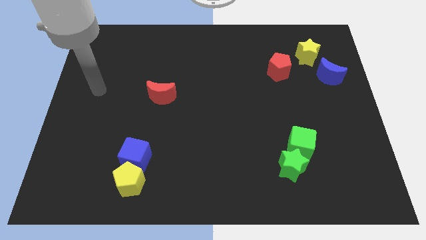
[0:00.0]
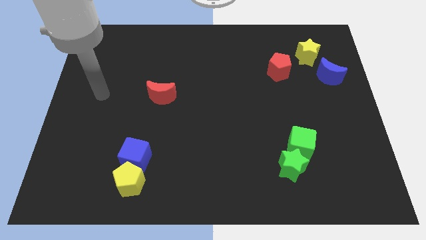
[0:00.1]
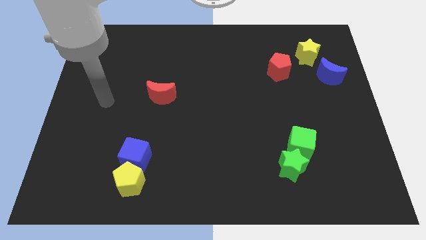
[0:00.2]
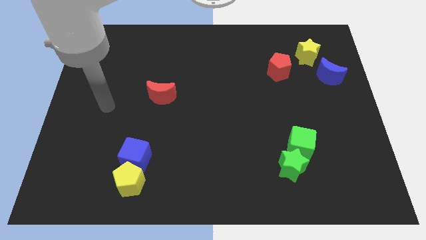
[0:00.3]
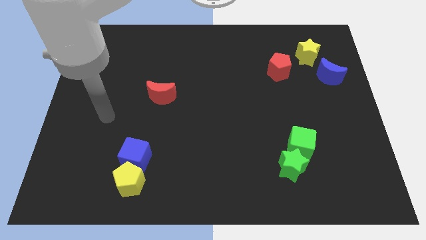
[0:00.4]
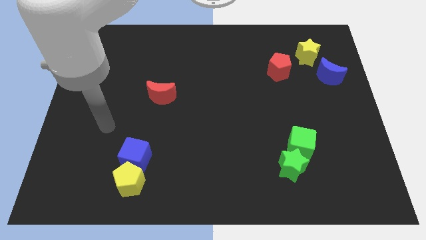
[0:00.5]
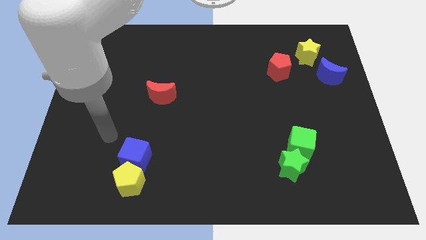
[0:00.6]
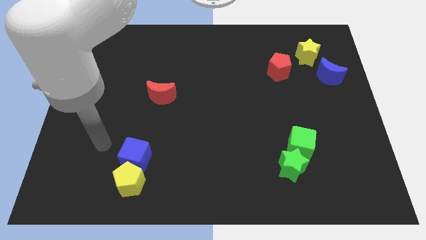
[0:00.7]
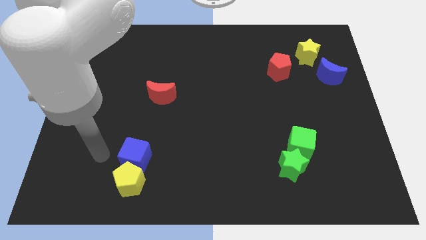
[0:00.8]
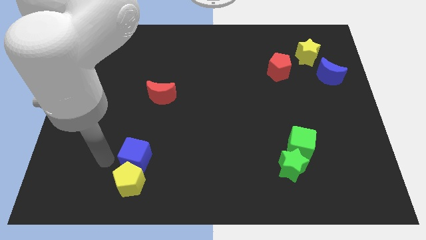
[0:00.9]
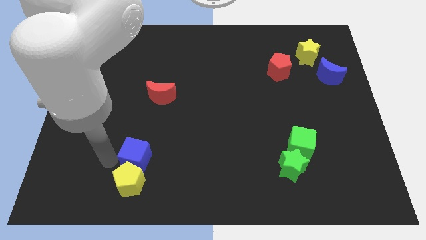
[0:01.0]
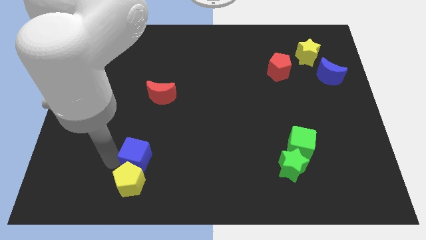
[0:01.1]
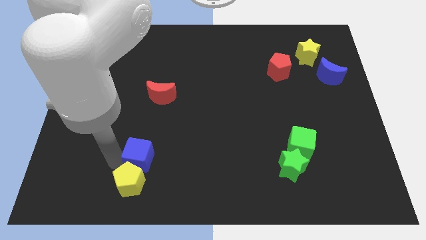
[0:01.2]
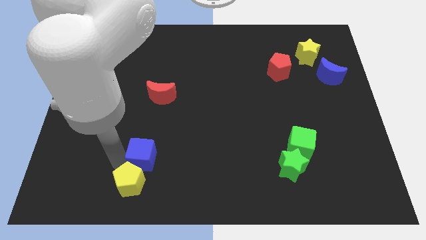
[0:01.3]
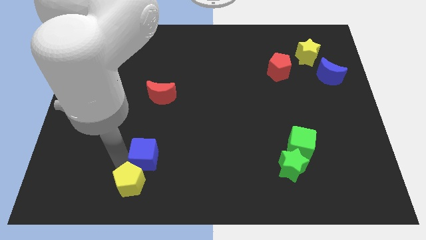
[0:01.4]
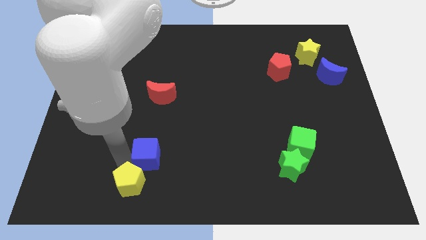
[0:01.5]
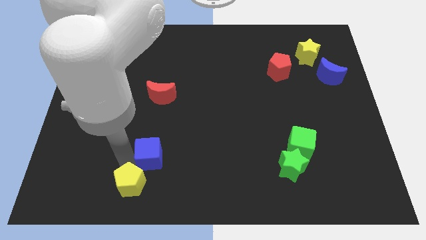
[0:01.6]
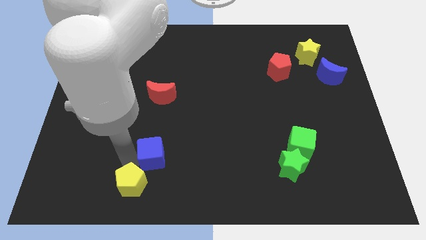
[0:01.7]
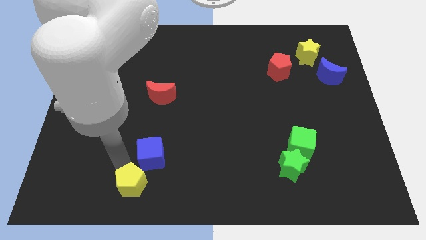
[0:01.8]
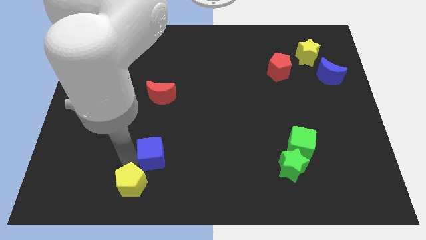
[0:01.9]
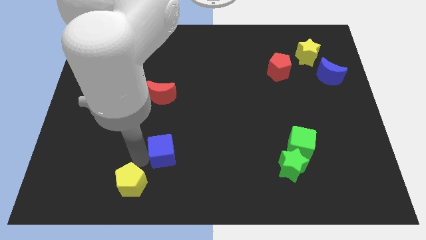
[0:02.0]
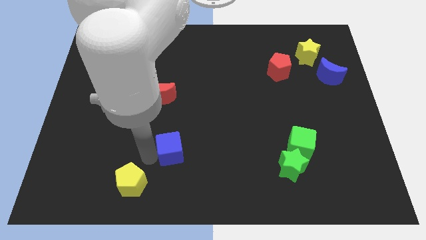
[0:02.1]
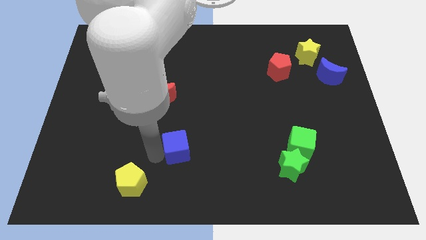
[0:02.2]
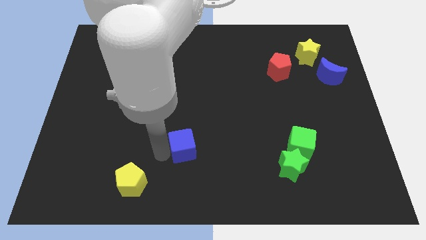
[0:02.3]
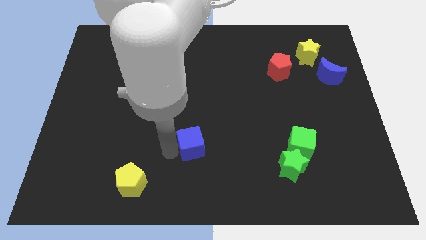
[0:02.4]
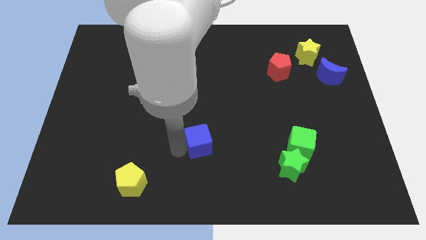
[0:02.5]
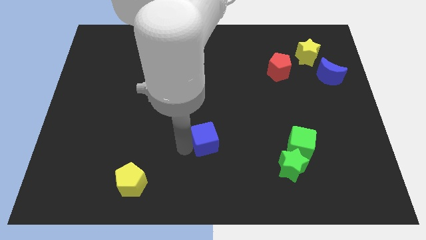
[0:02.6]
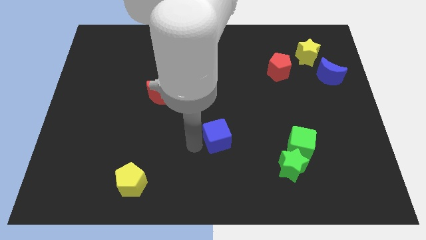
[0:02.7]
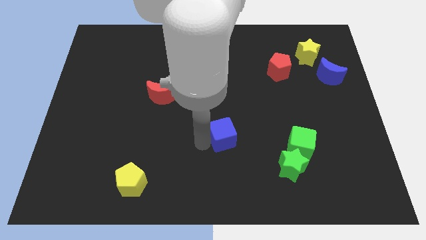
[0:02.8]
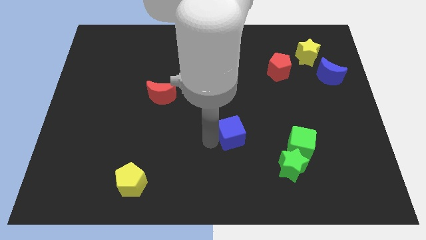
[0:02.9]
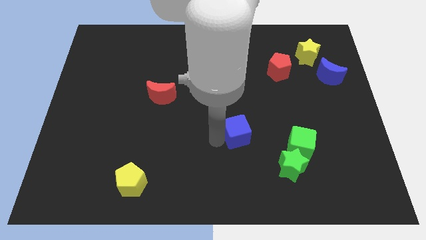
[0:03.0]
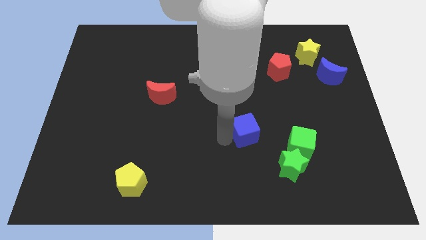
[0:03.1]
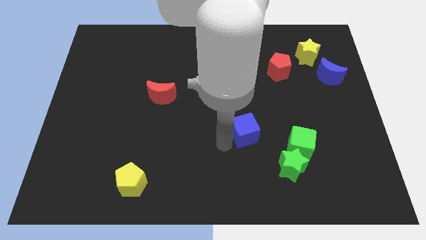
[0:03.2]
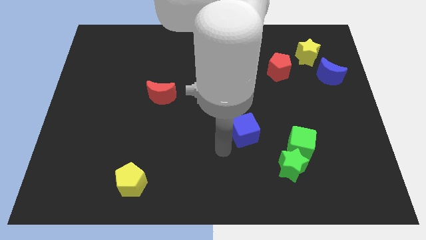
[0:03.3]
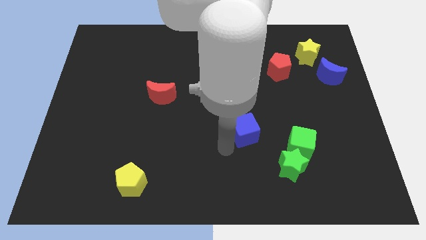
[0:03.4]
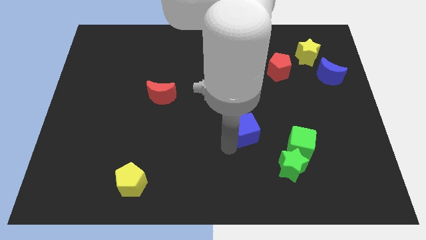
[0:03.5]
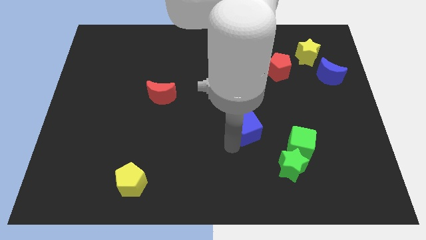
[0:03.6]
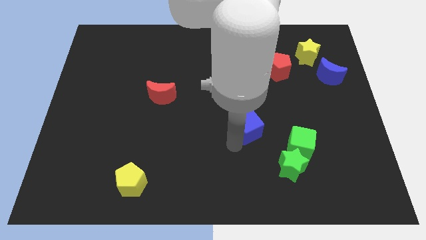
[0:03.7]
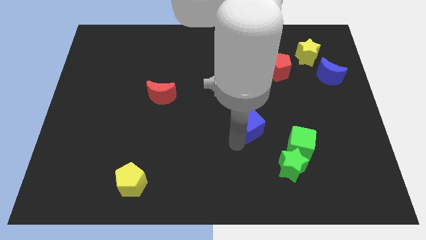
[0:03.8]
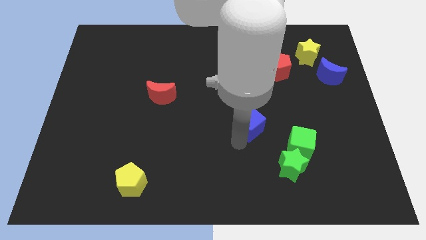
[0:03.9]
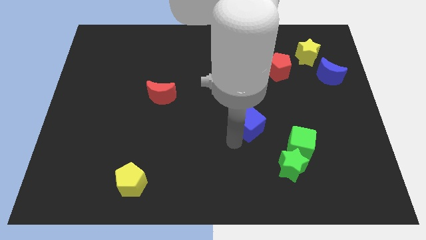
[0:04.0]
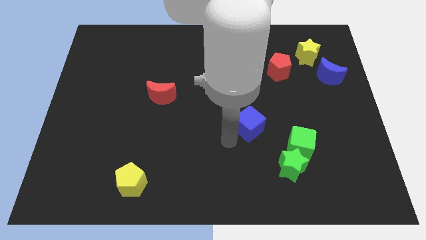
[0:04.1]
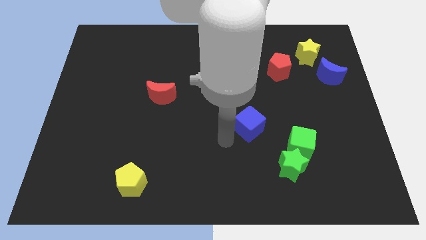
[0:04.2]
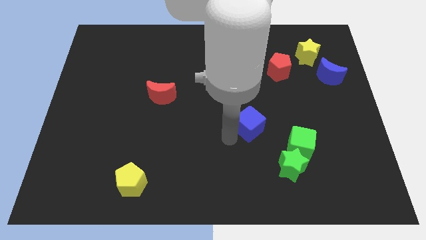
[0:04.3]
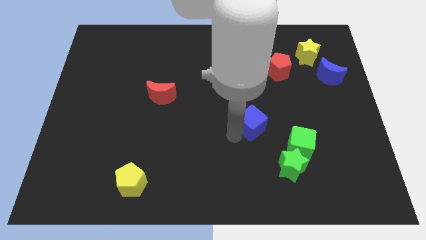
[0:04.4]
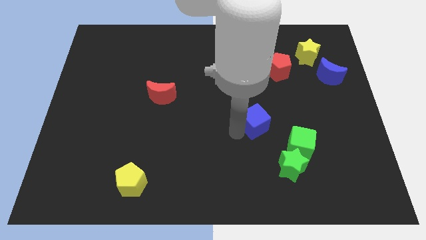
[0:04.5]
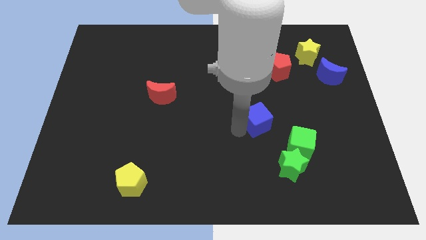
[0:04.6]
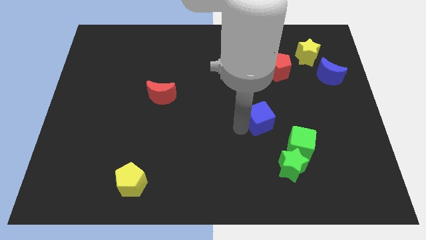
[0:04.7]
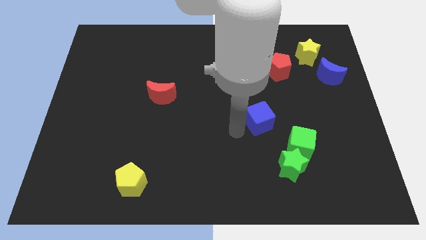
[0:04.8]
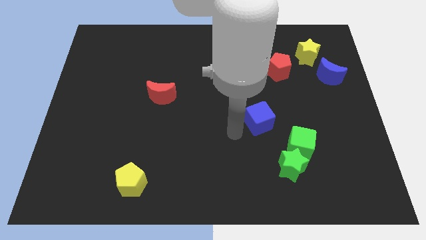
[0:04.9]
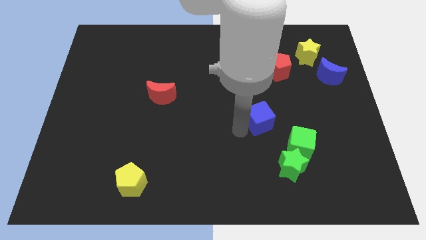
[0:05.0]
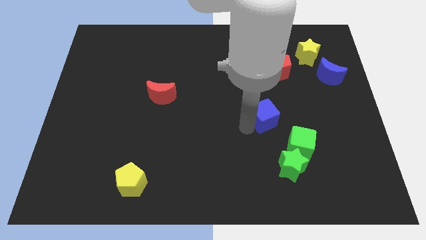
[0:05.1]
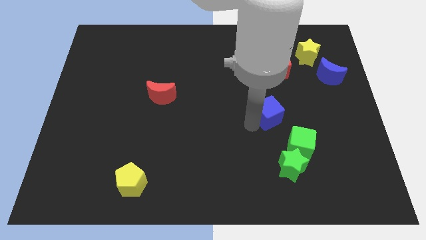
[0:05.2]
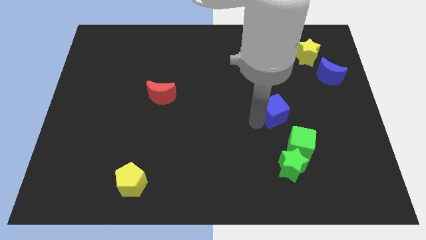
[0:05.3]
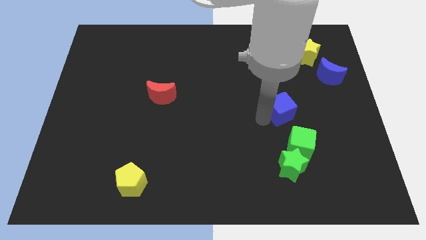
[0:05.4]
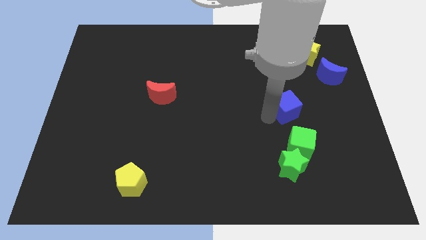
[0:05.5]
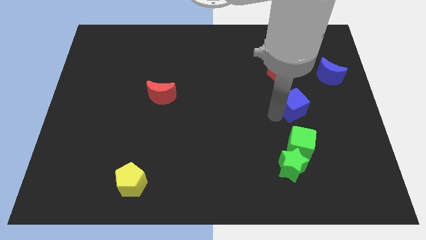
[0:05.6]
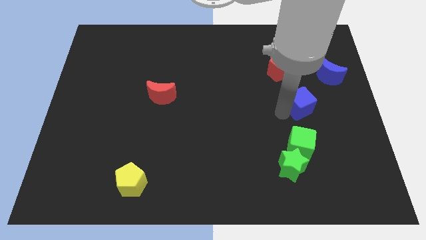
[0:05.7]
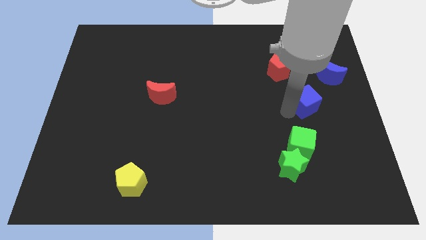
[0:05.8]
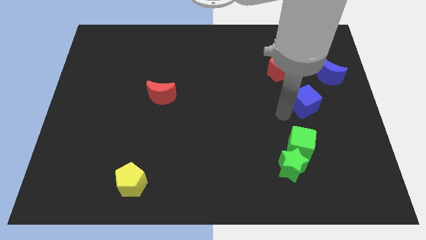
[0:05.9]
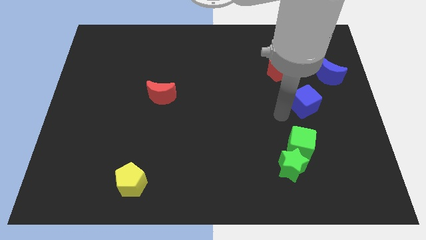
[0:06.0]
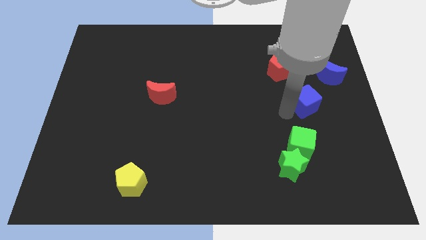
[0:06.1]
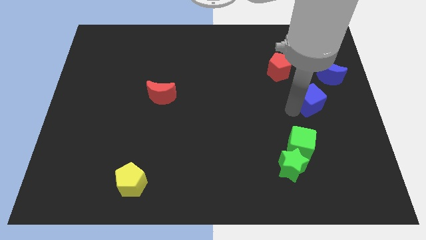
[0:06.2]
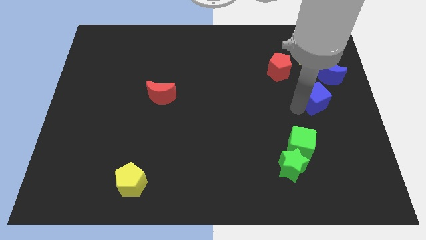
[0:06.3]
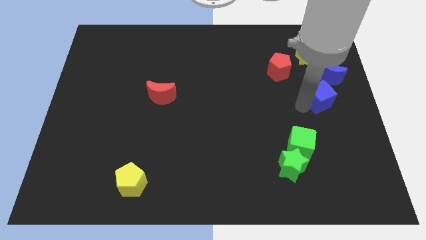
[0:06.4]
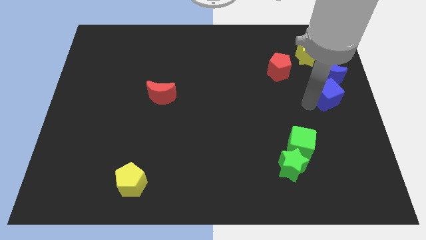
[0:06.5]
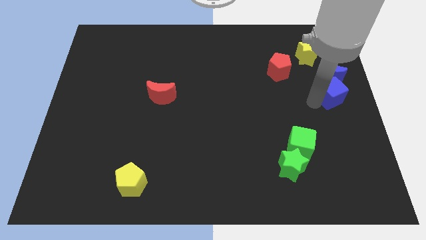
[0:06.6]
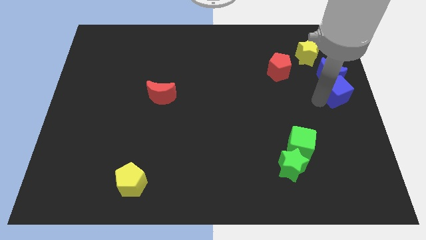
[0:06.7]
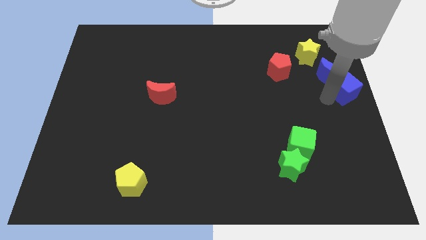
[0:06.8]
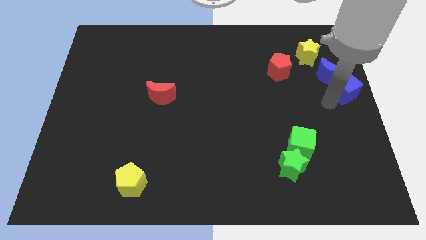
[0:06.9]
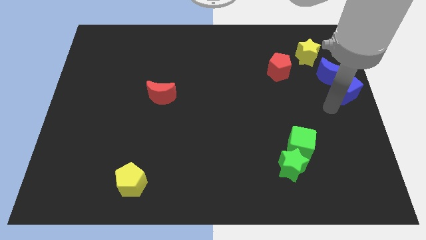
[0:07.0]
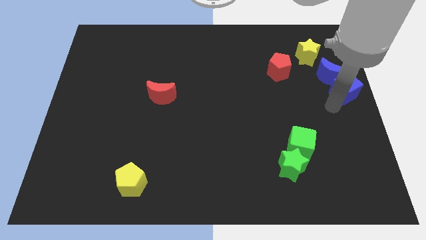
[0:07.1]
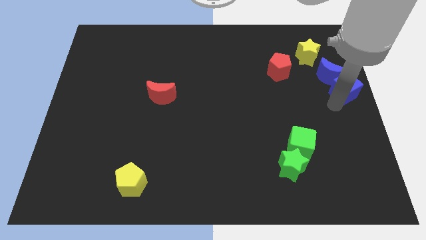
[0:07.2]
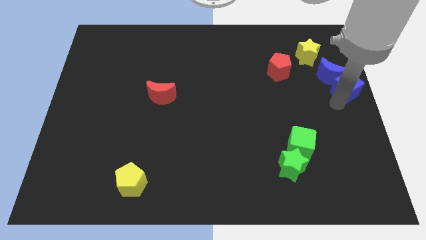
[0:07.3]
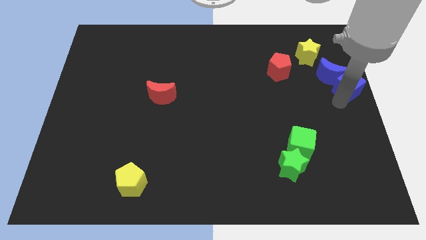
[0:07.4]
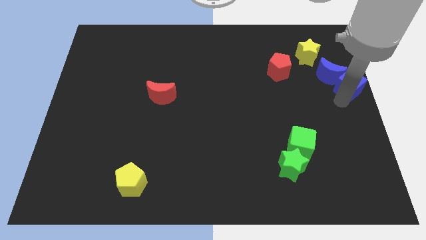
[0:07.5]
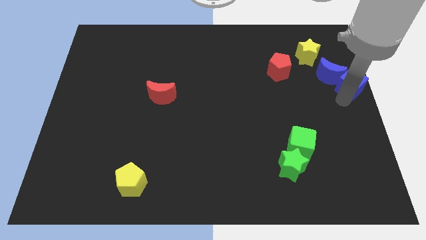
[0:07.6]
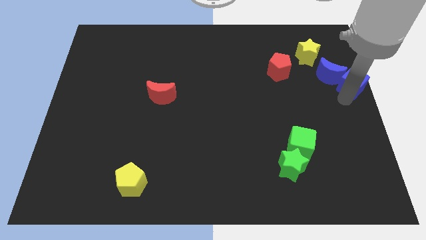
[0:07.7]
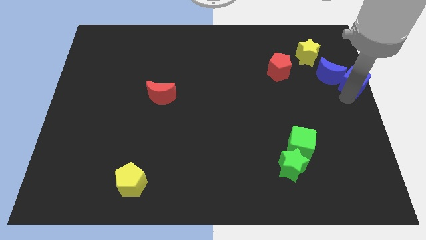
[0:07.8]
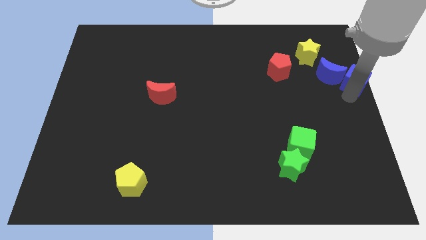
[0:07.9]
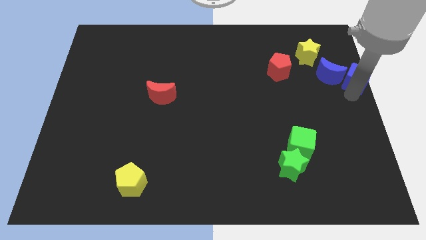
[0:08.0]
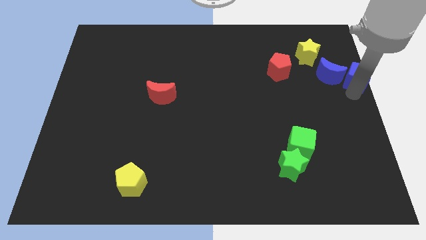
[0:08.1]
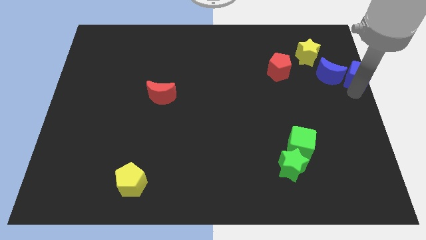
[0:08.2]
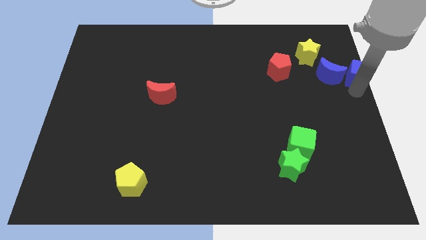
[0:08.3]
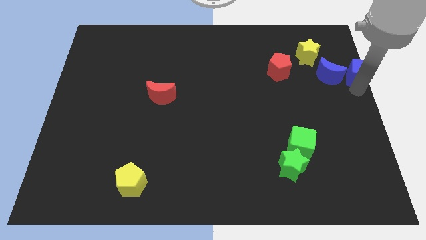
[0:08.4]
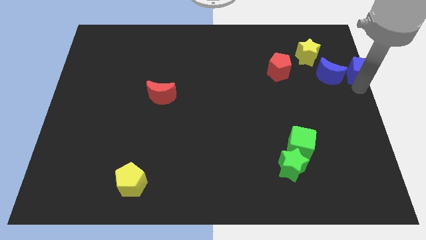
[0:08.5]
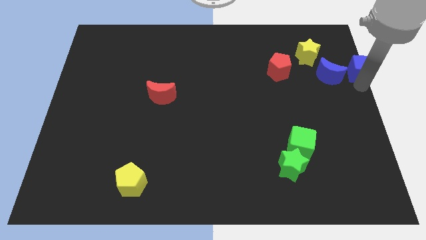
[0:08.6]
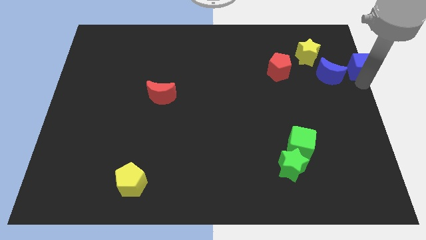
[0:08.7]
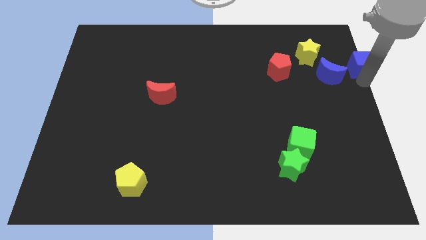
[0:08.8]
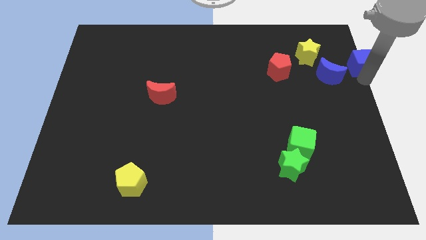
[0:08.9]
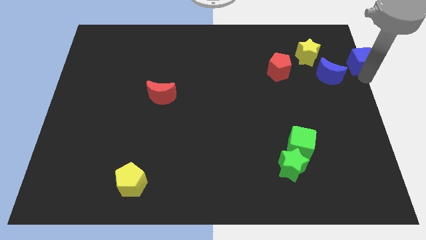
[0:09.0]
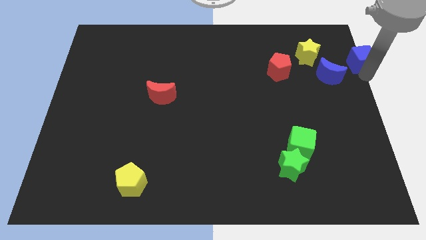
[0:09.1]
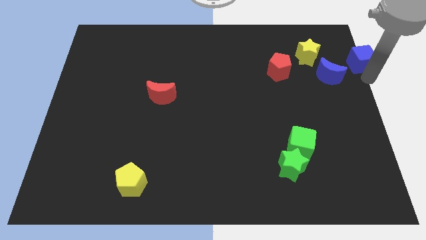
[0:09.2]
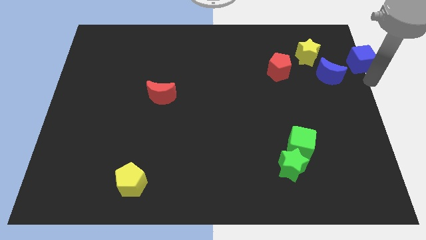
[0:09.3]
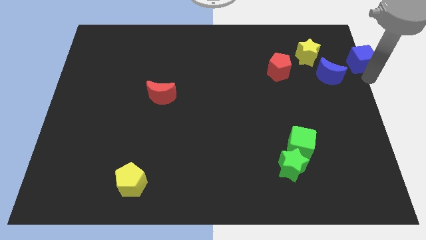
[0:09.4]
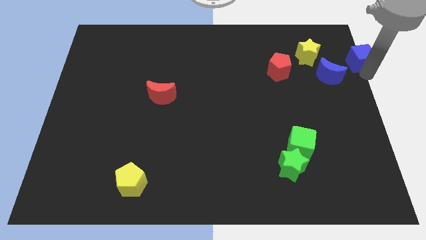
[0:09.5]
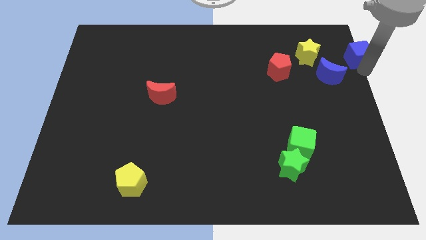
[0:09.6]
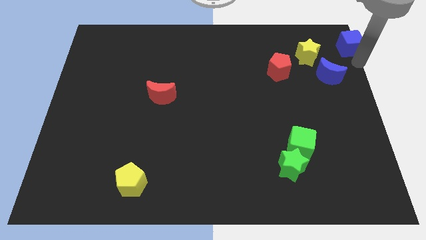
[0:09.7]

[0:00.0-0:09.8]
put the blue cube to the upper right corner
